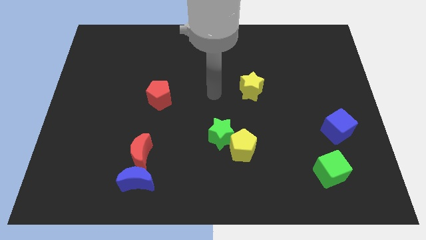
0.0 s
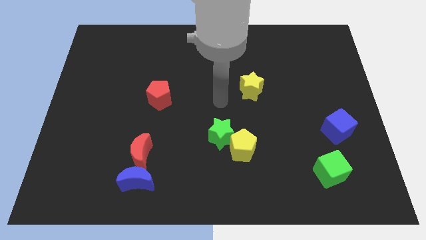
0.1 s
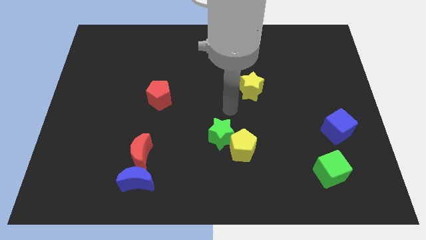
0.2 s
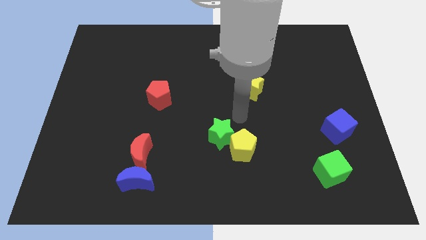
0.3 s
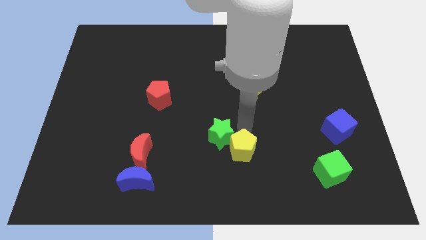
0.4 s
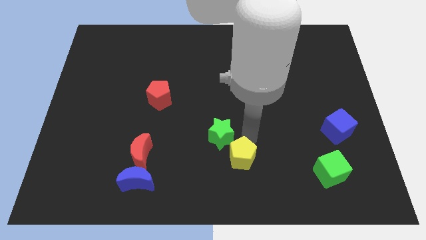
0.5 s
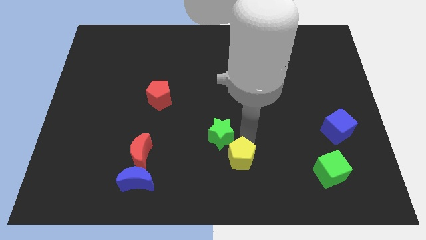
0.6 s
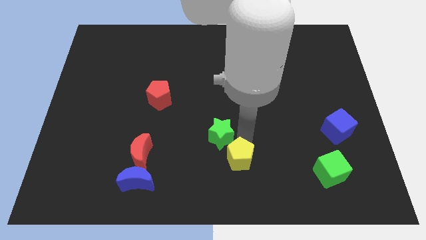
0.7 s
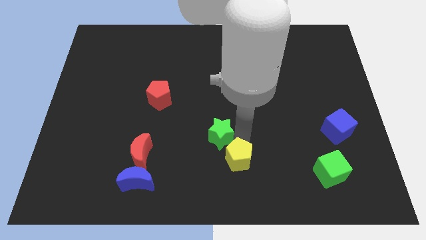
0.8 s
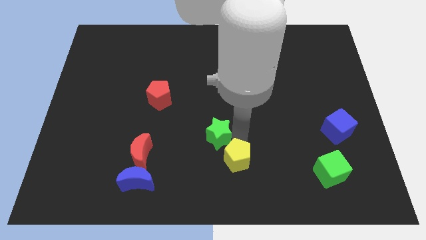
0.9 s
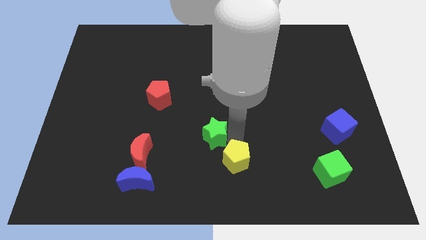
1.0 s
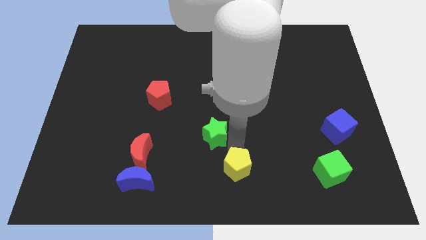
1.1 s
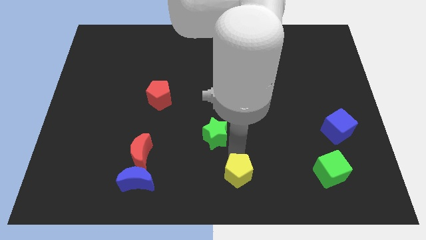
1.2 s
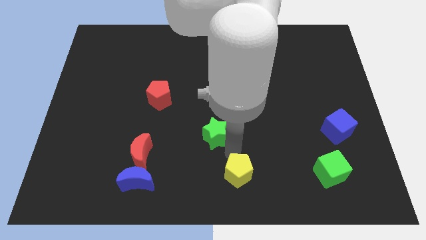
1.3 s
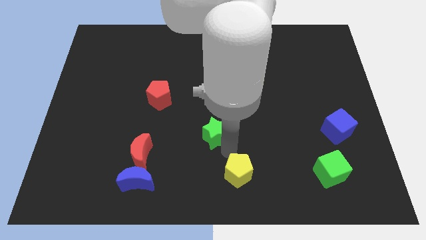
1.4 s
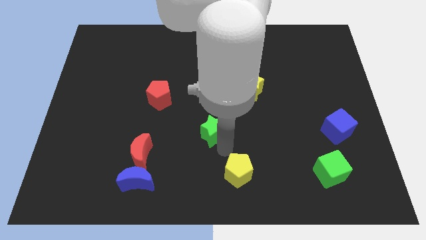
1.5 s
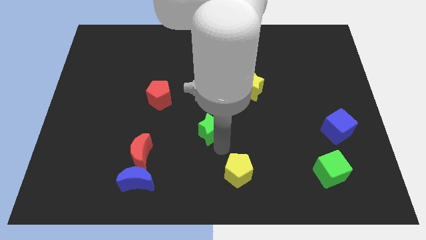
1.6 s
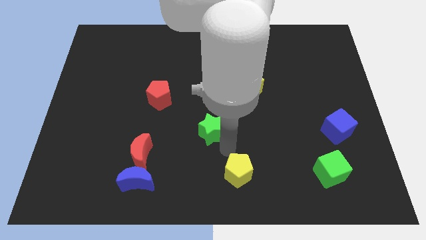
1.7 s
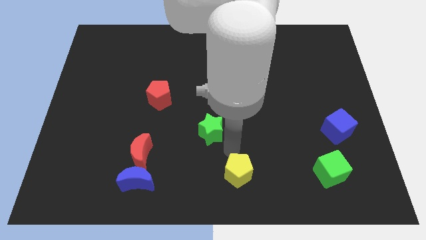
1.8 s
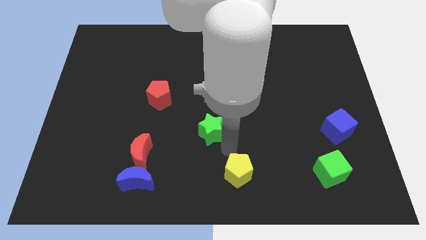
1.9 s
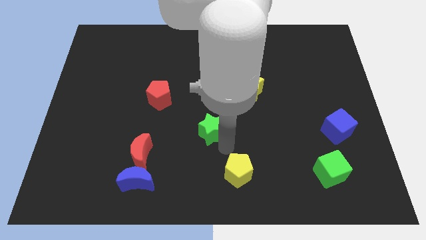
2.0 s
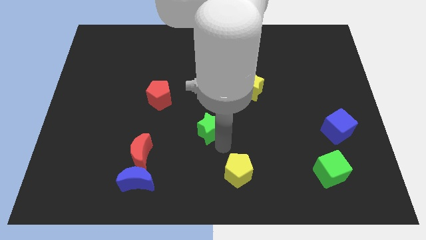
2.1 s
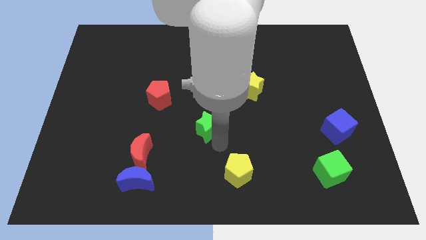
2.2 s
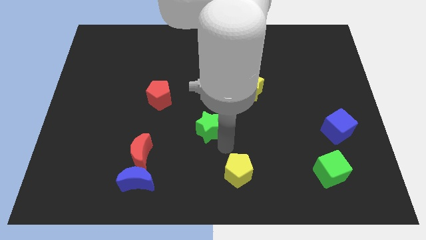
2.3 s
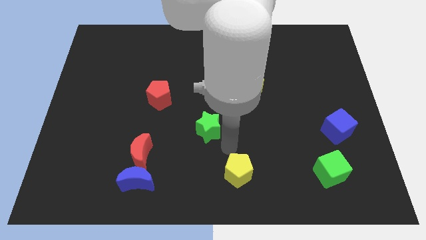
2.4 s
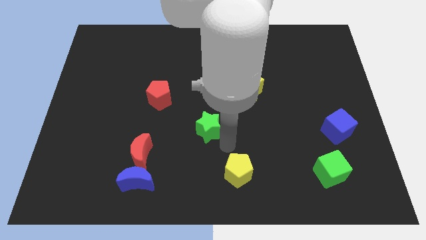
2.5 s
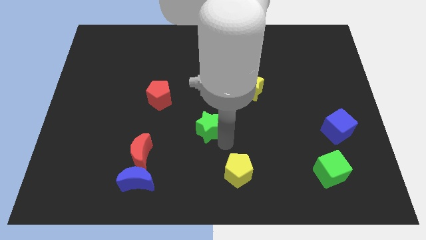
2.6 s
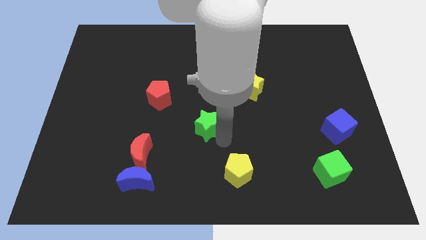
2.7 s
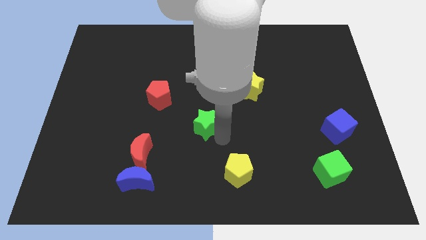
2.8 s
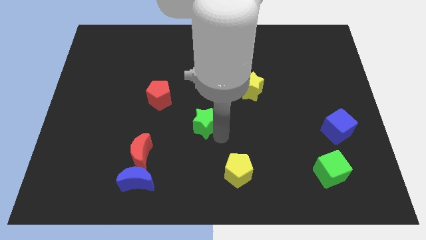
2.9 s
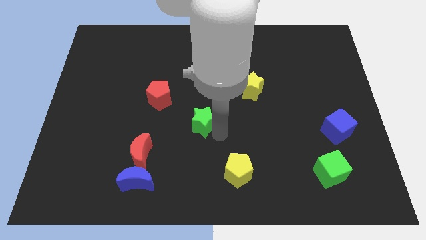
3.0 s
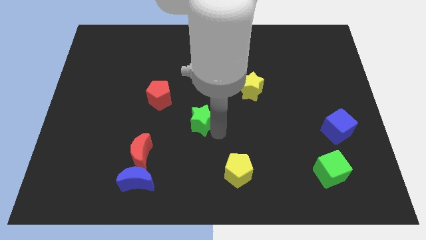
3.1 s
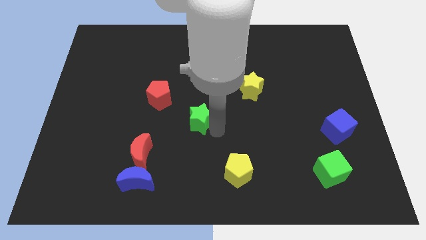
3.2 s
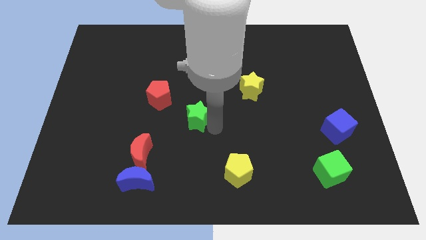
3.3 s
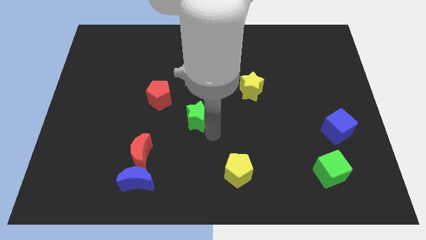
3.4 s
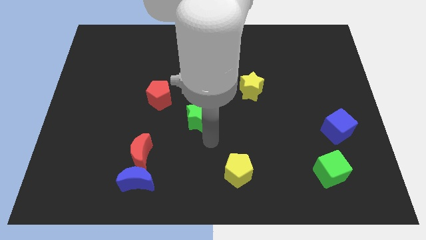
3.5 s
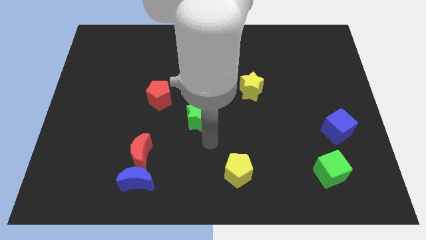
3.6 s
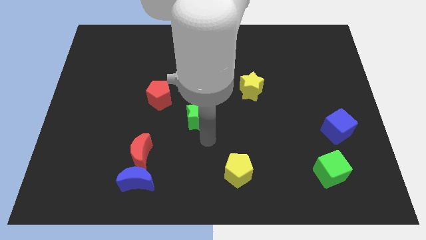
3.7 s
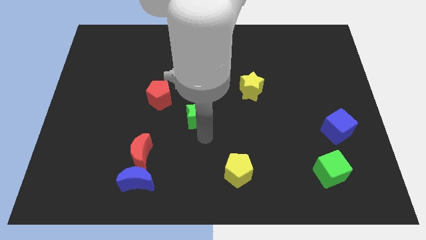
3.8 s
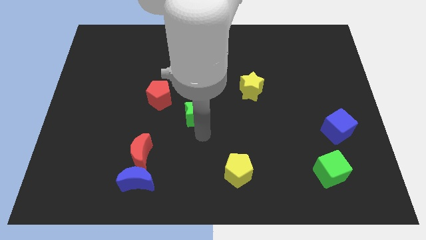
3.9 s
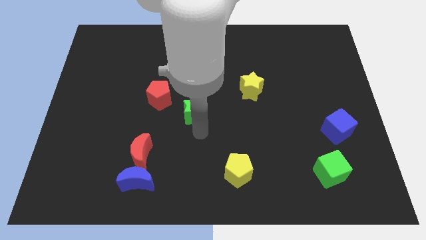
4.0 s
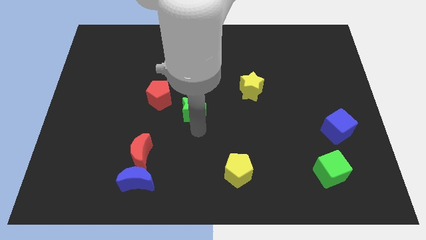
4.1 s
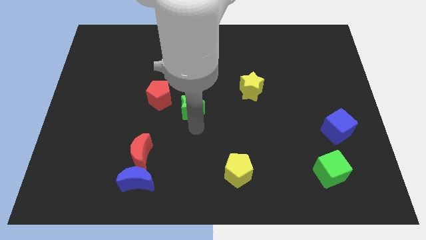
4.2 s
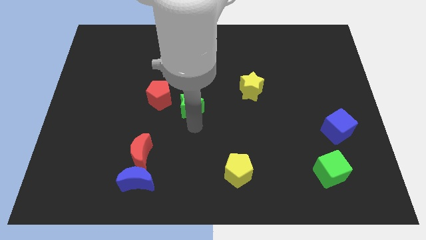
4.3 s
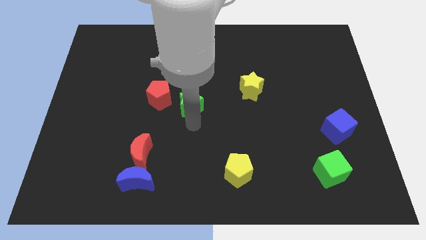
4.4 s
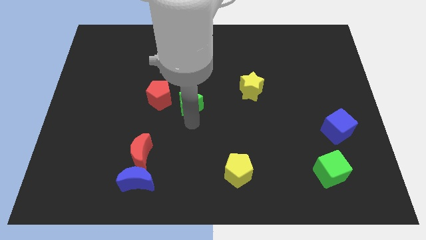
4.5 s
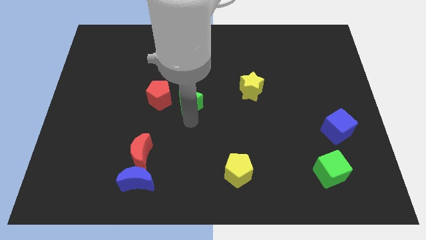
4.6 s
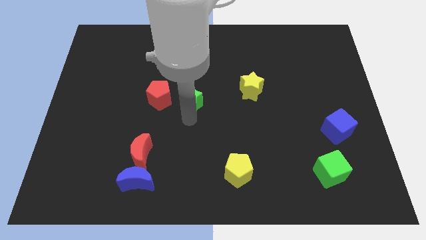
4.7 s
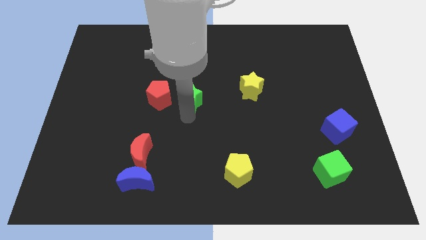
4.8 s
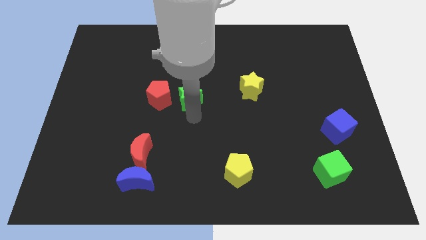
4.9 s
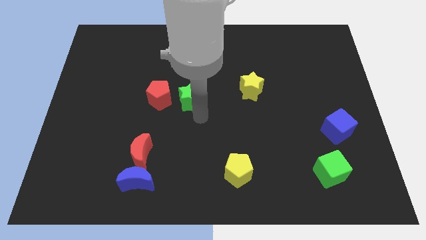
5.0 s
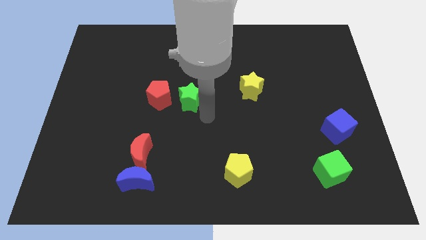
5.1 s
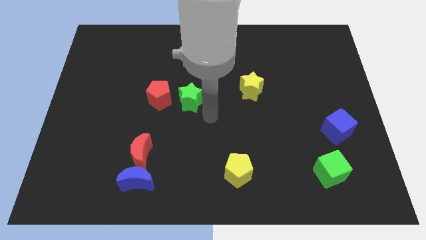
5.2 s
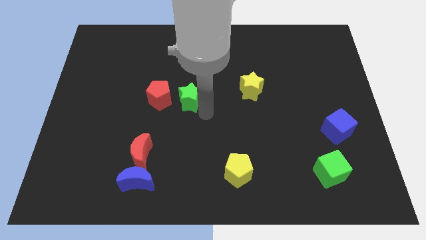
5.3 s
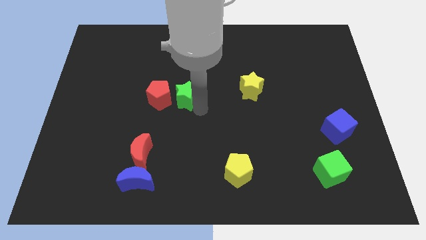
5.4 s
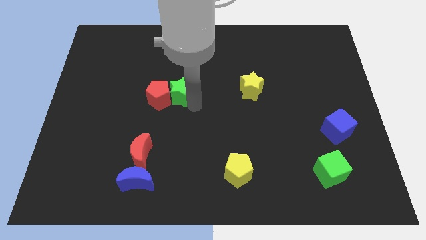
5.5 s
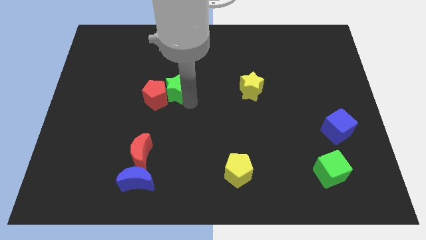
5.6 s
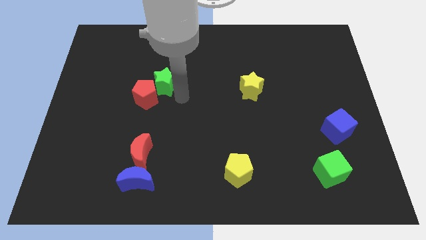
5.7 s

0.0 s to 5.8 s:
slide the green star upwards and then left

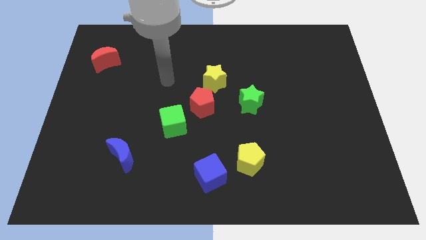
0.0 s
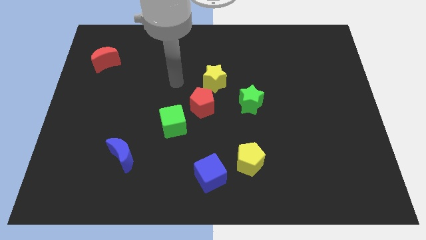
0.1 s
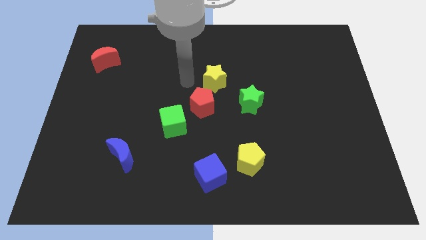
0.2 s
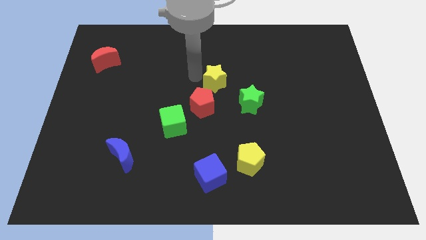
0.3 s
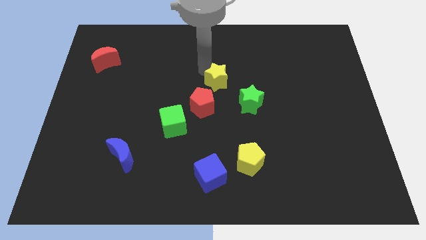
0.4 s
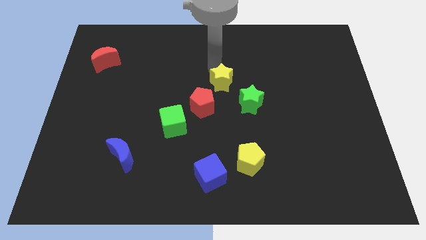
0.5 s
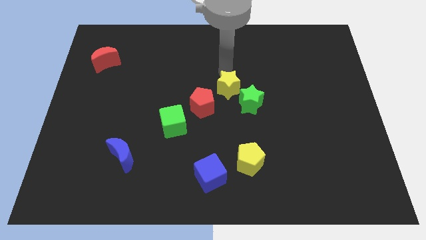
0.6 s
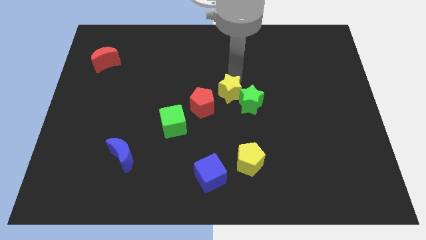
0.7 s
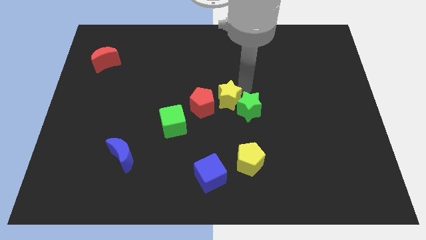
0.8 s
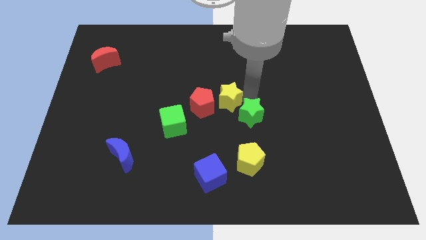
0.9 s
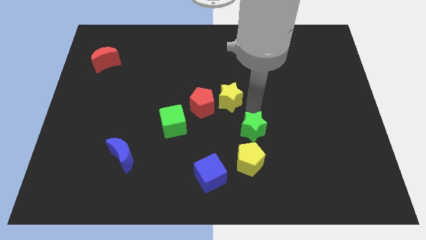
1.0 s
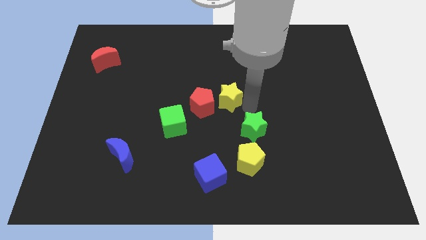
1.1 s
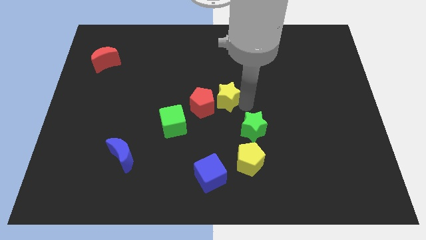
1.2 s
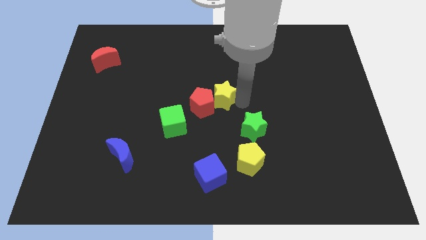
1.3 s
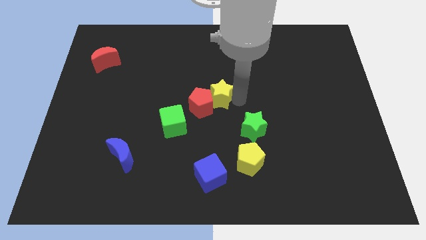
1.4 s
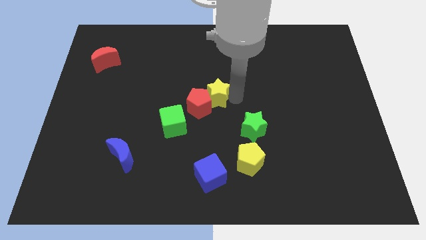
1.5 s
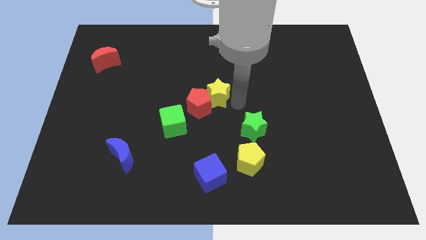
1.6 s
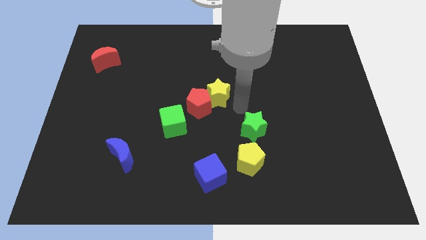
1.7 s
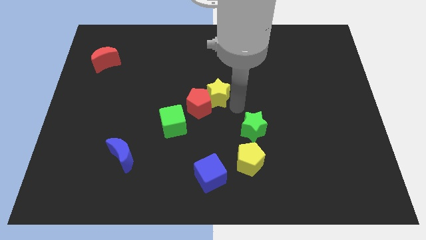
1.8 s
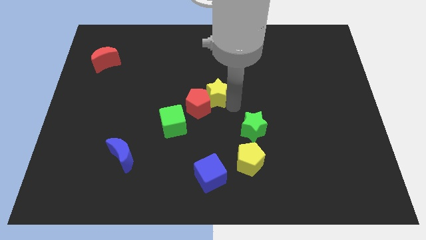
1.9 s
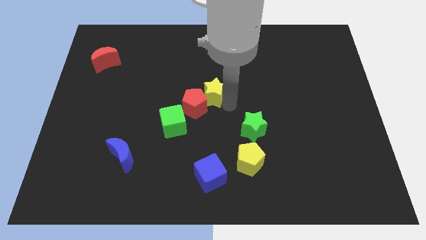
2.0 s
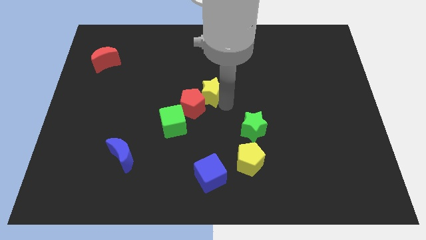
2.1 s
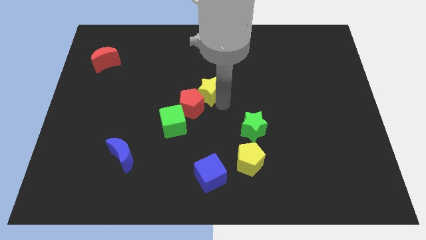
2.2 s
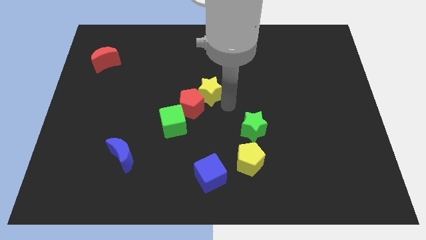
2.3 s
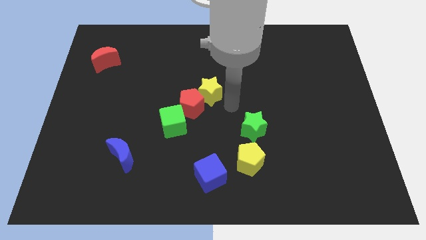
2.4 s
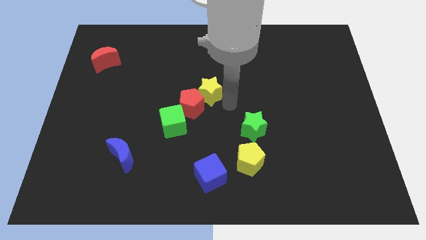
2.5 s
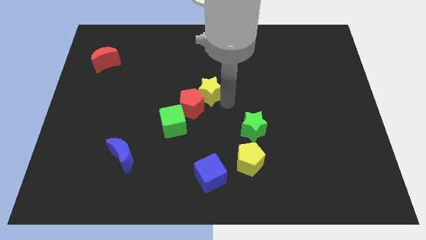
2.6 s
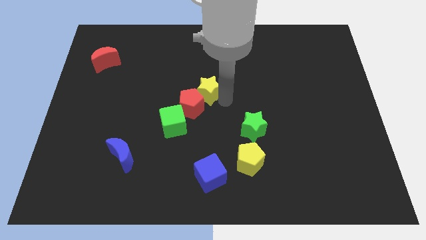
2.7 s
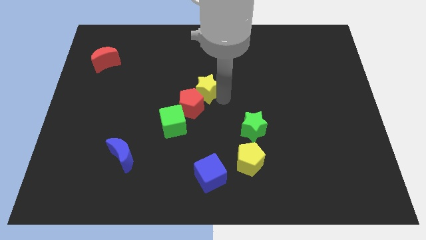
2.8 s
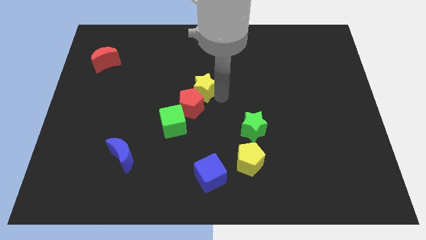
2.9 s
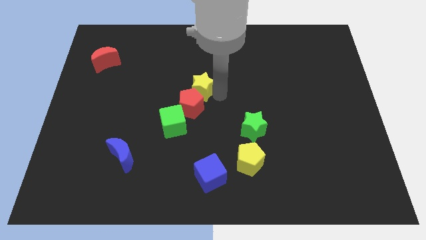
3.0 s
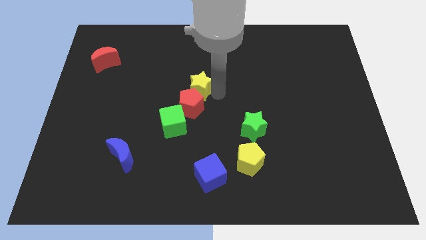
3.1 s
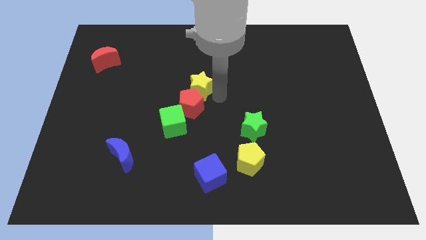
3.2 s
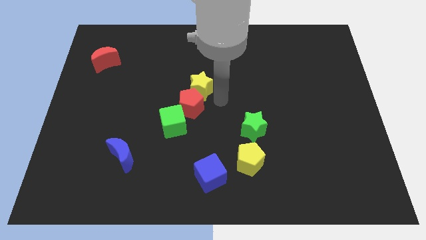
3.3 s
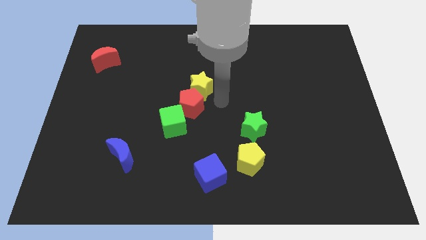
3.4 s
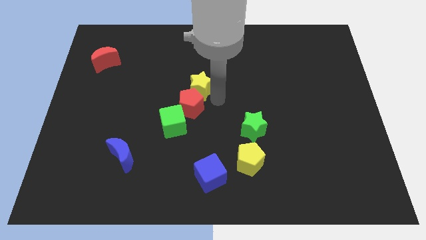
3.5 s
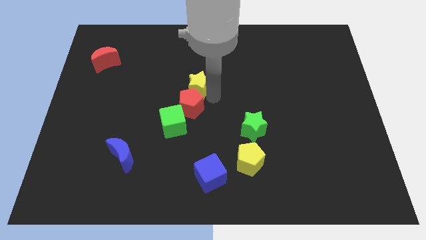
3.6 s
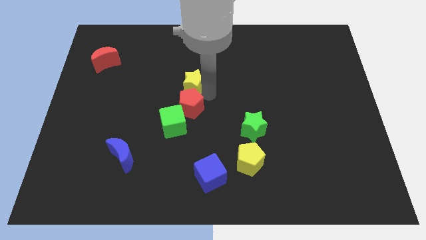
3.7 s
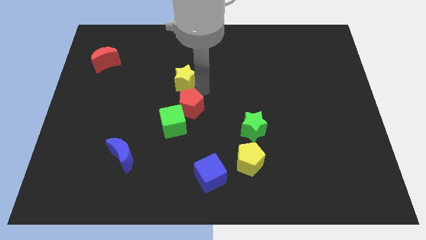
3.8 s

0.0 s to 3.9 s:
move the yellow star to the left a little
